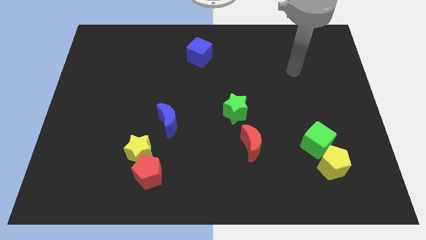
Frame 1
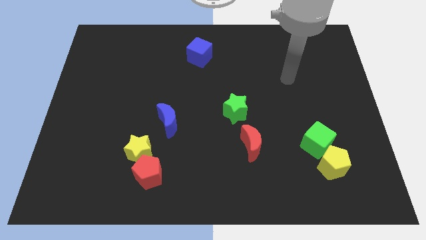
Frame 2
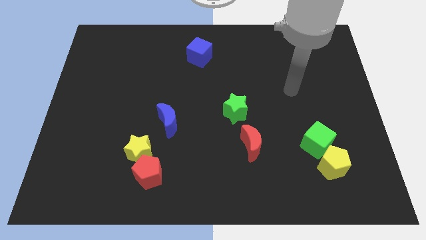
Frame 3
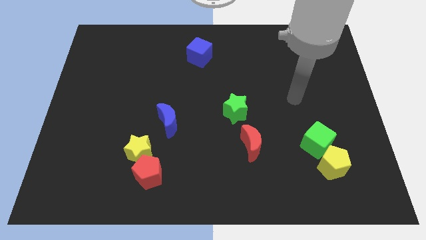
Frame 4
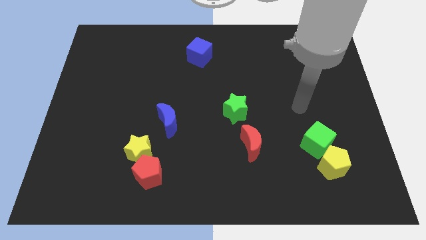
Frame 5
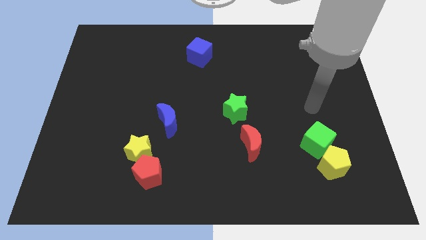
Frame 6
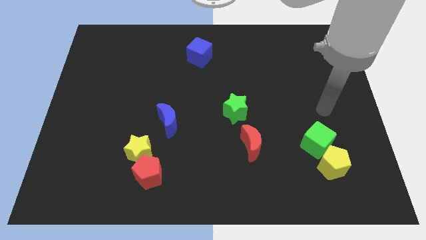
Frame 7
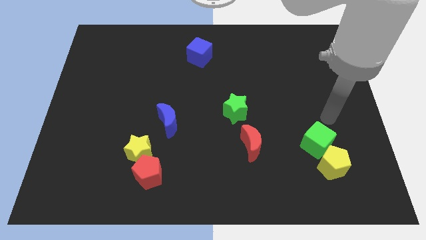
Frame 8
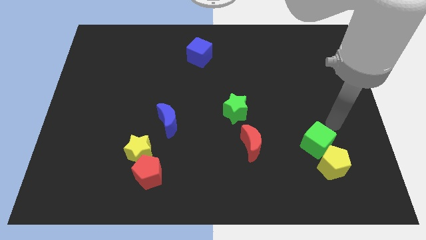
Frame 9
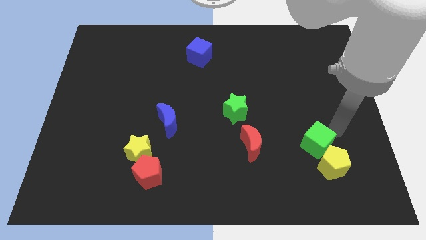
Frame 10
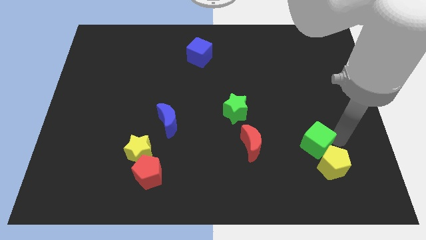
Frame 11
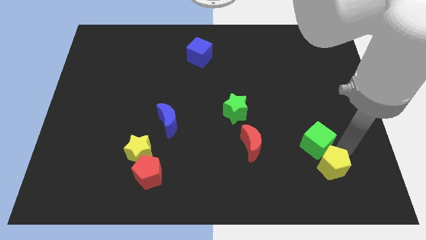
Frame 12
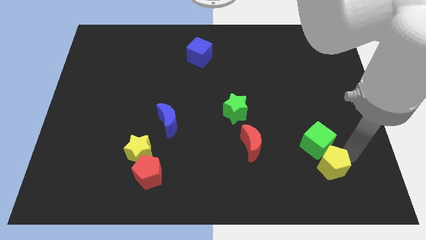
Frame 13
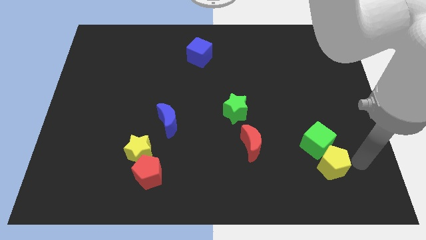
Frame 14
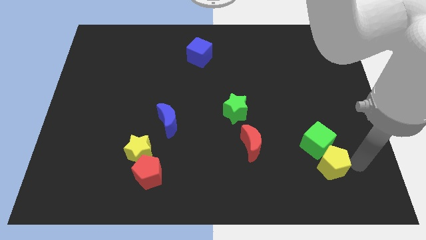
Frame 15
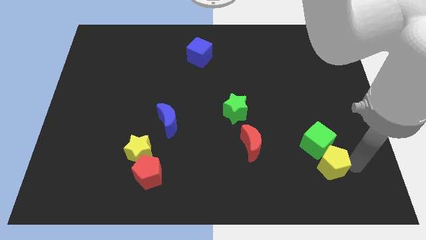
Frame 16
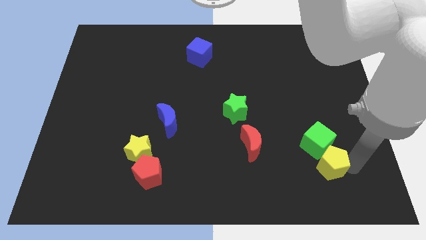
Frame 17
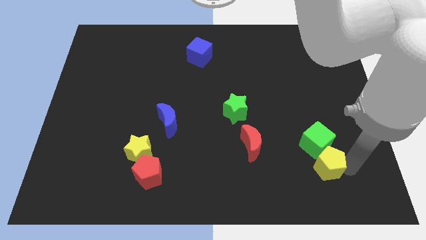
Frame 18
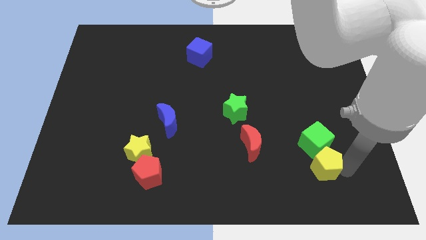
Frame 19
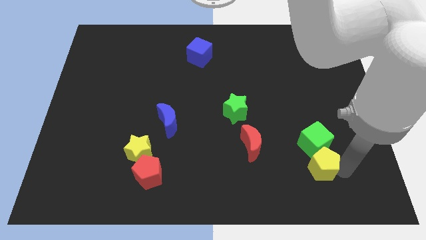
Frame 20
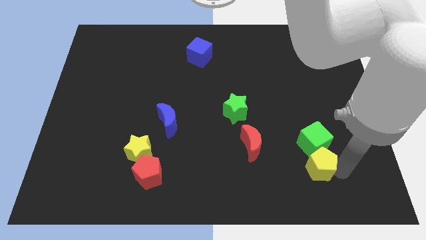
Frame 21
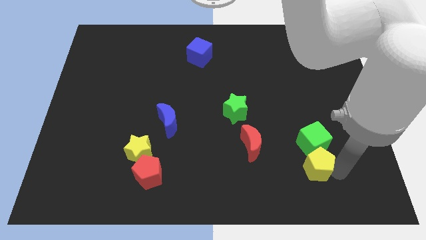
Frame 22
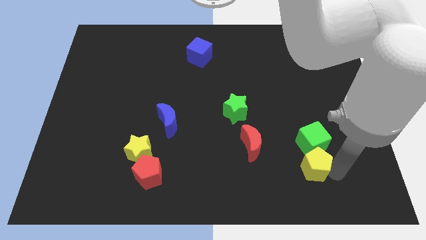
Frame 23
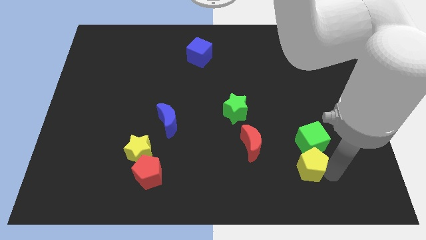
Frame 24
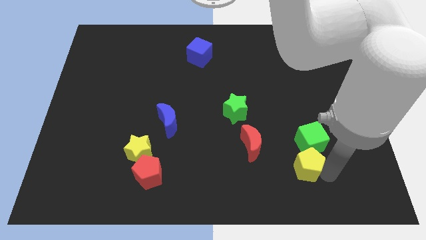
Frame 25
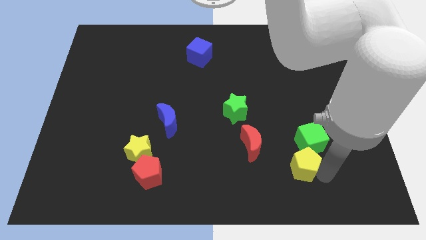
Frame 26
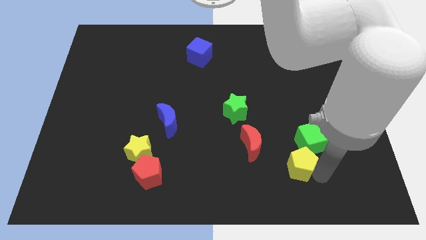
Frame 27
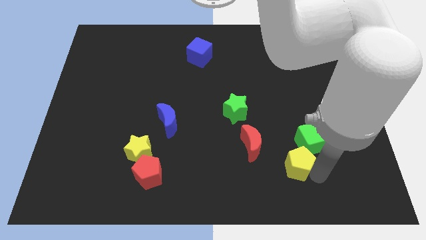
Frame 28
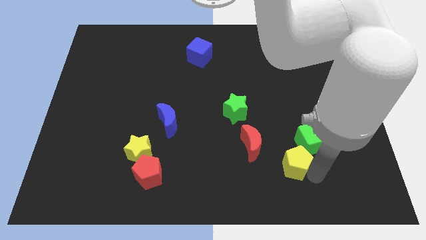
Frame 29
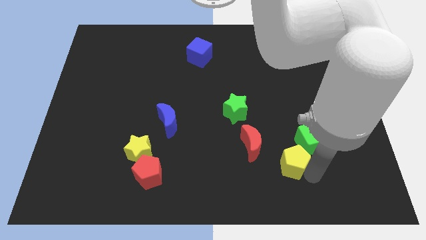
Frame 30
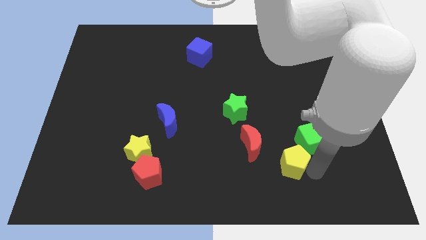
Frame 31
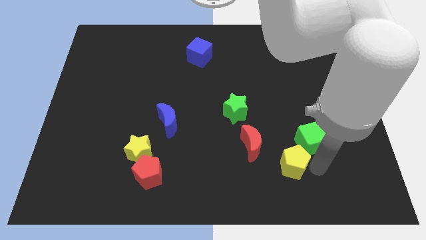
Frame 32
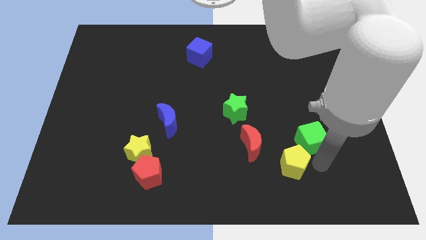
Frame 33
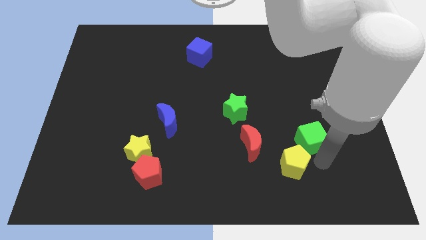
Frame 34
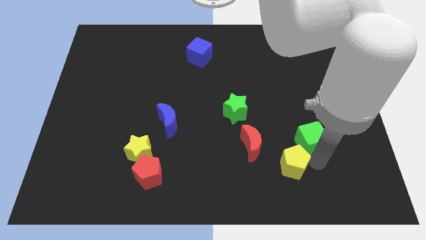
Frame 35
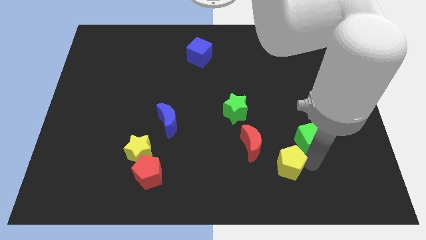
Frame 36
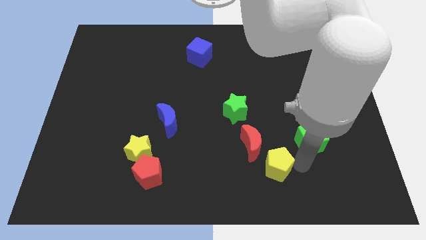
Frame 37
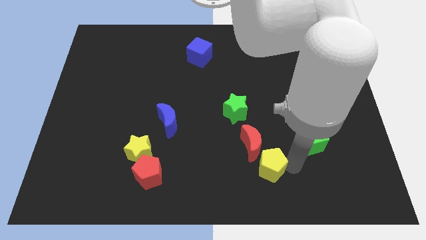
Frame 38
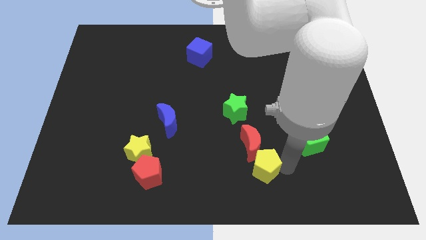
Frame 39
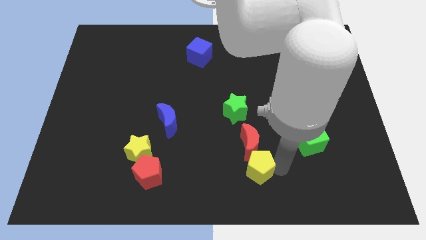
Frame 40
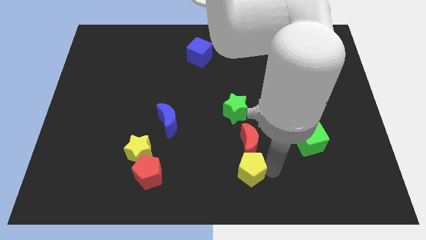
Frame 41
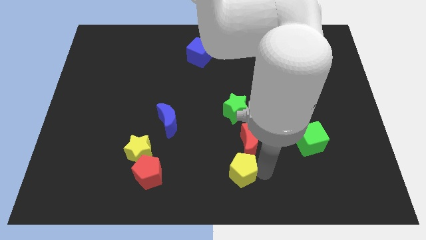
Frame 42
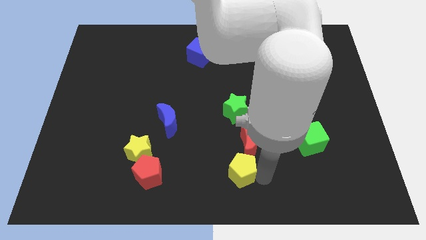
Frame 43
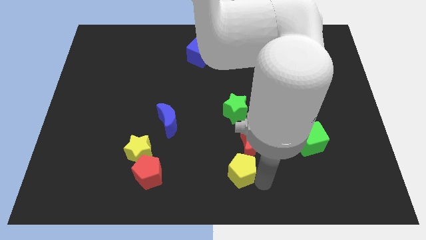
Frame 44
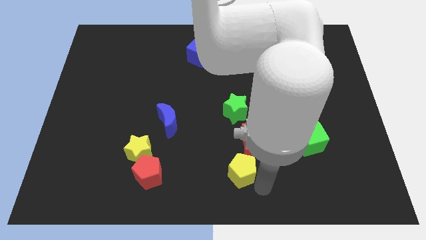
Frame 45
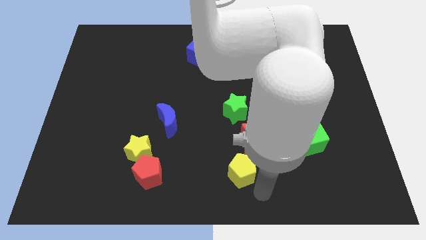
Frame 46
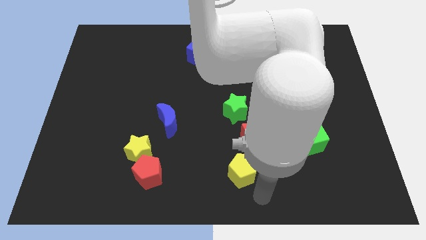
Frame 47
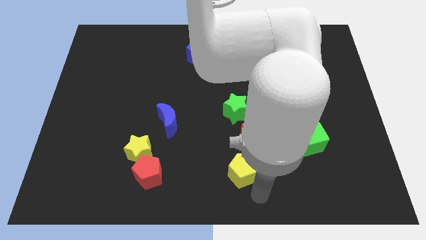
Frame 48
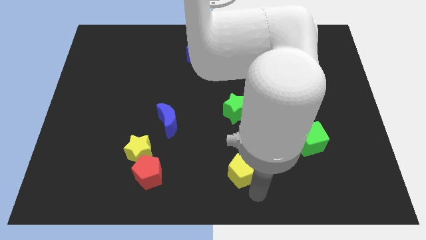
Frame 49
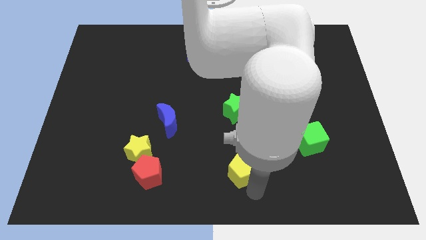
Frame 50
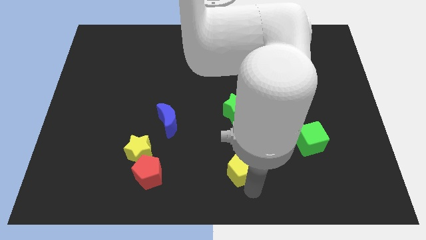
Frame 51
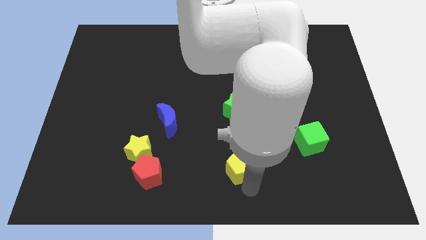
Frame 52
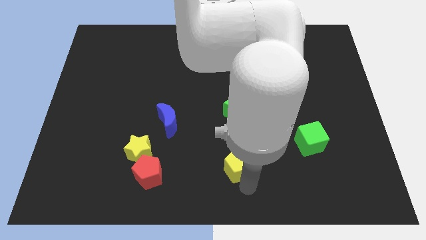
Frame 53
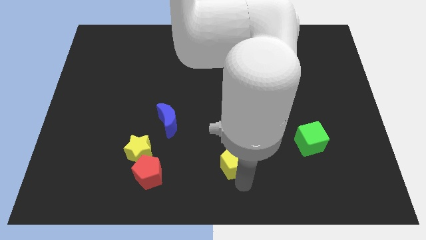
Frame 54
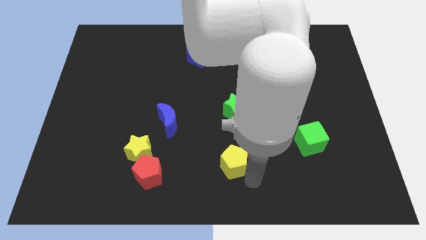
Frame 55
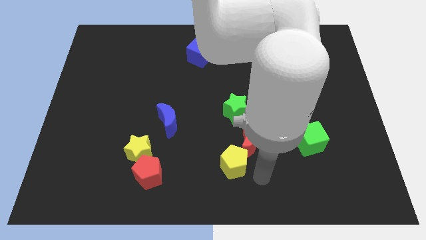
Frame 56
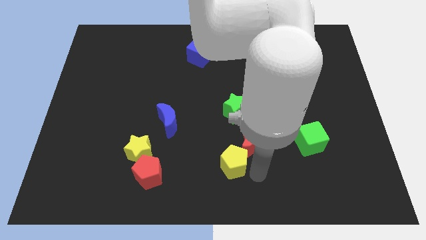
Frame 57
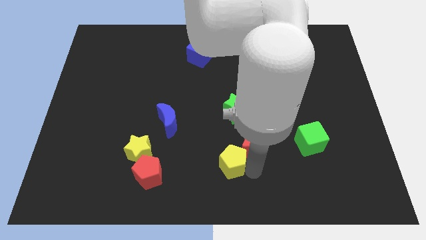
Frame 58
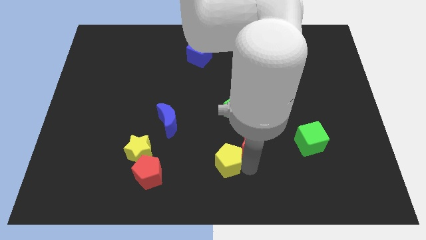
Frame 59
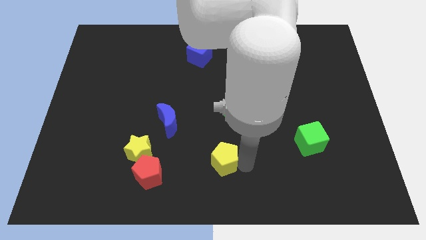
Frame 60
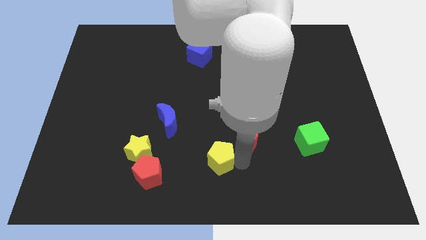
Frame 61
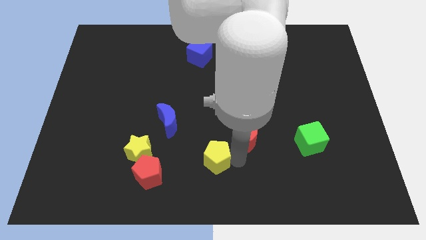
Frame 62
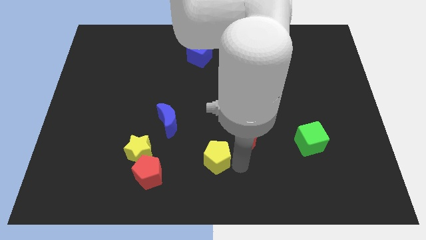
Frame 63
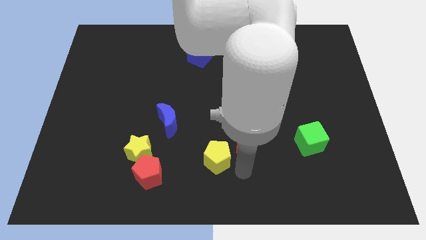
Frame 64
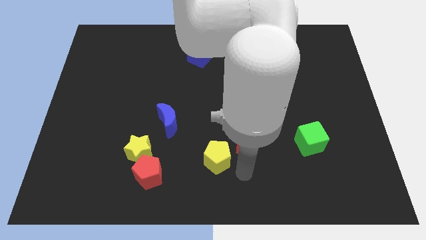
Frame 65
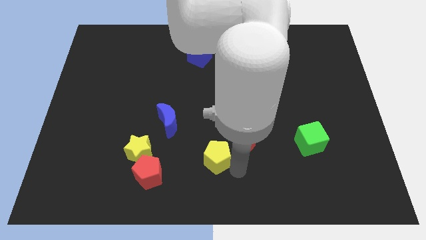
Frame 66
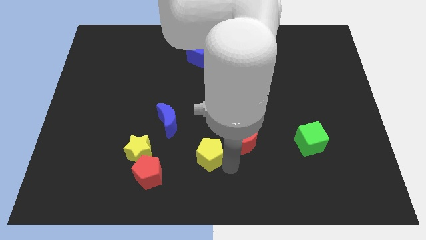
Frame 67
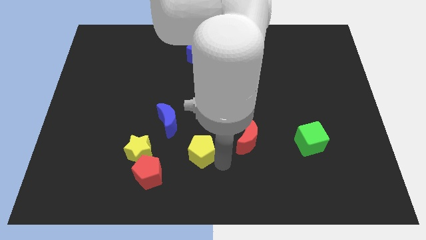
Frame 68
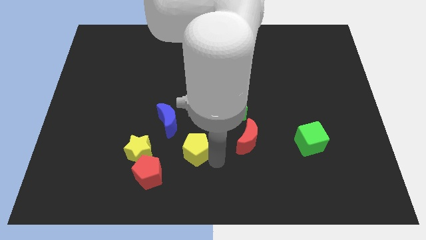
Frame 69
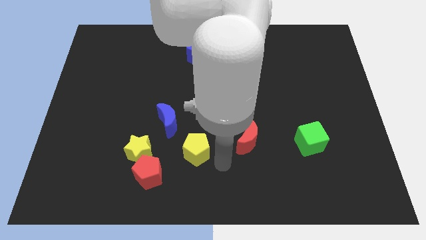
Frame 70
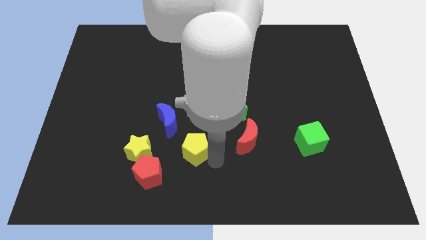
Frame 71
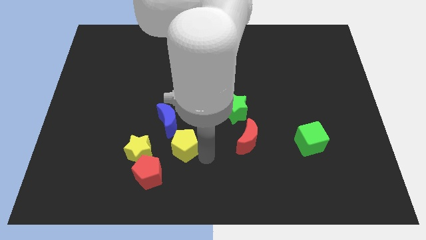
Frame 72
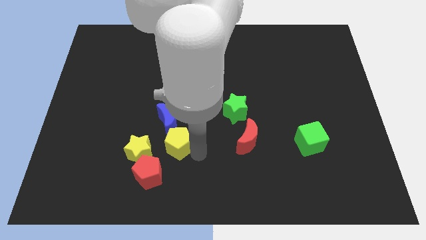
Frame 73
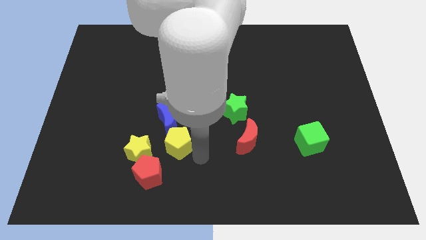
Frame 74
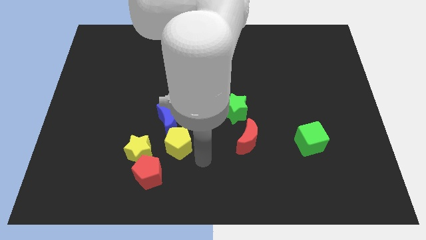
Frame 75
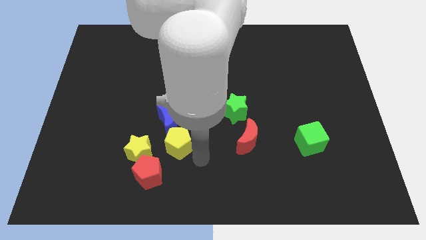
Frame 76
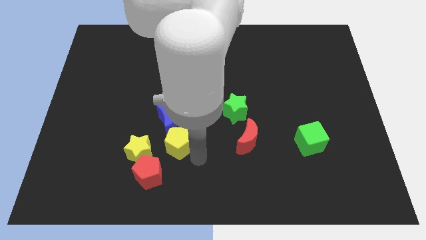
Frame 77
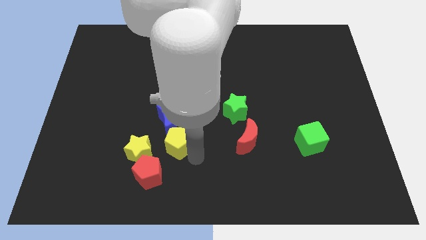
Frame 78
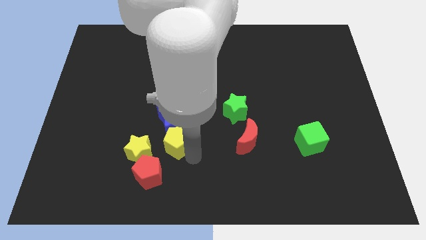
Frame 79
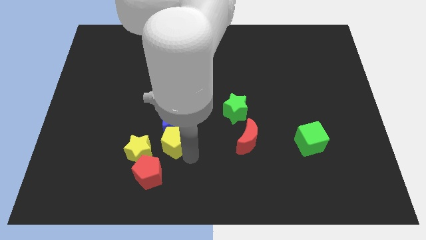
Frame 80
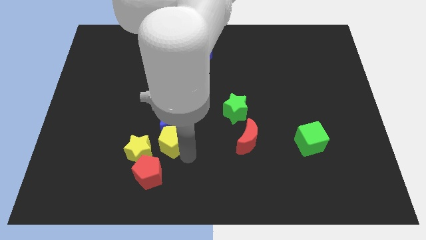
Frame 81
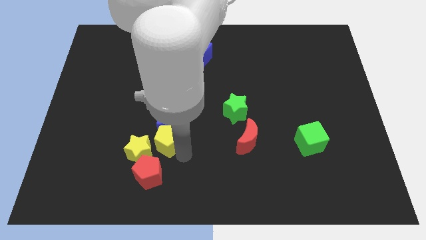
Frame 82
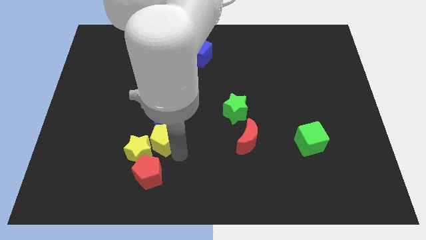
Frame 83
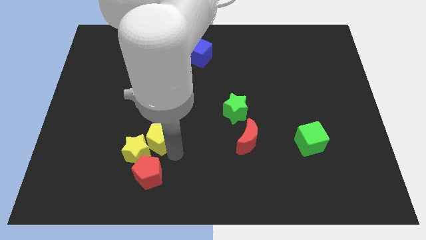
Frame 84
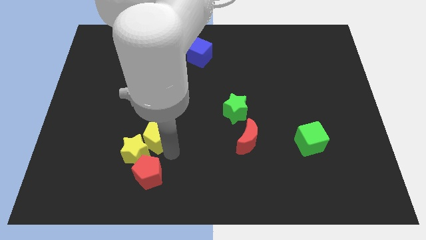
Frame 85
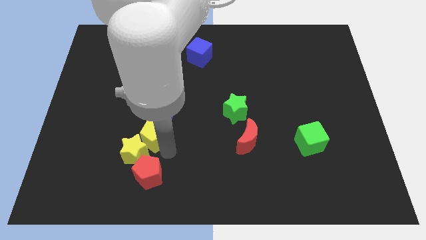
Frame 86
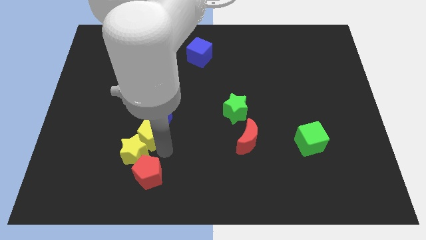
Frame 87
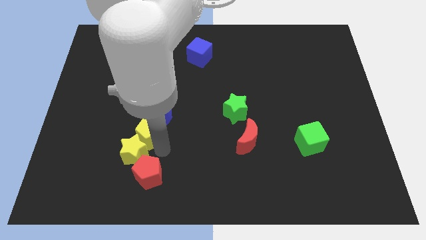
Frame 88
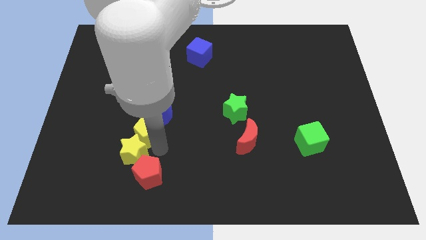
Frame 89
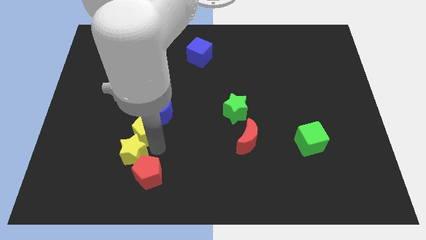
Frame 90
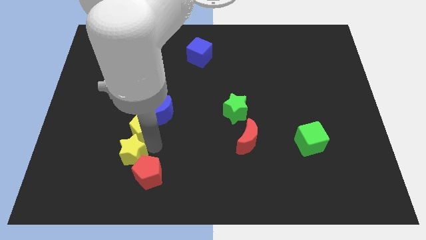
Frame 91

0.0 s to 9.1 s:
slide the yellow pentagon left of the blue moon
